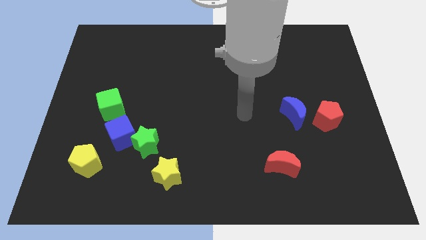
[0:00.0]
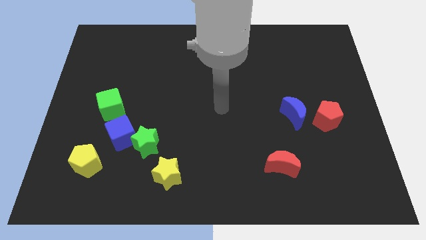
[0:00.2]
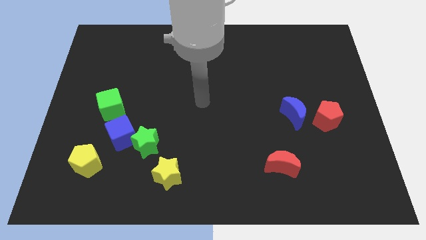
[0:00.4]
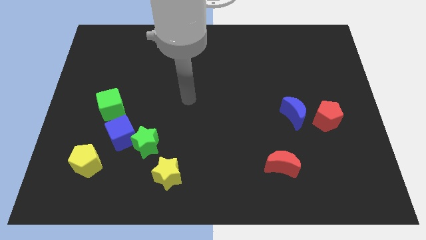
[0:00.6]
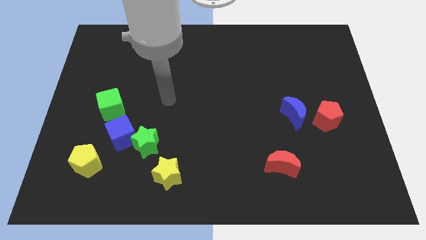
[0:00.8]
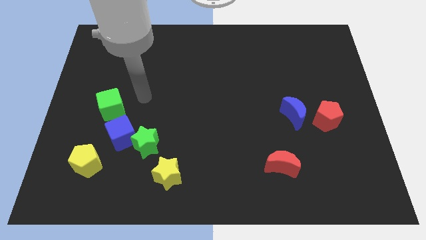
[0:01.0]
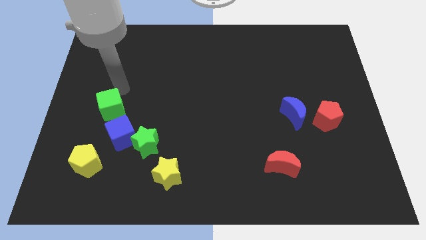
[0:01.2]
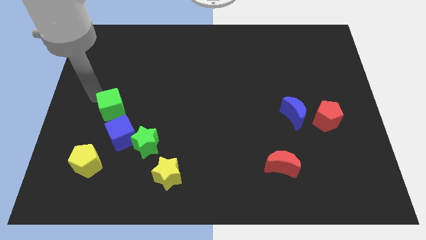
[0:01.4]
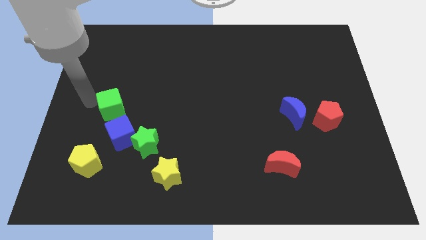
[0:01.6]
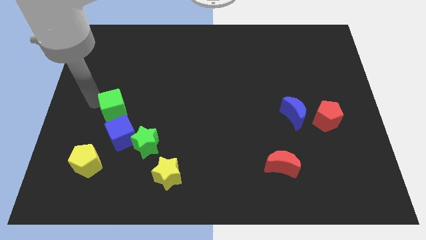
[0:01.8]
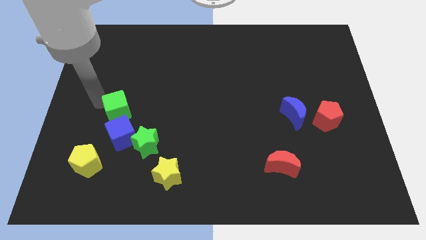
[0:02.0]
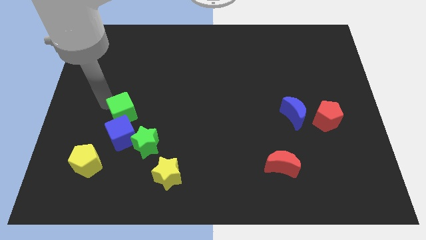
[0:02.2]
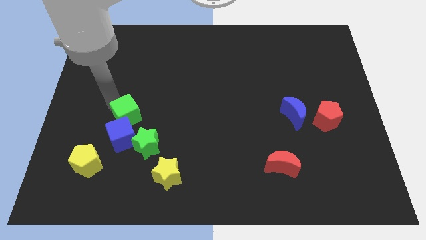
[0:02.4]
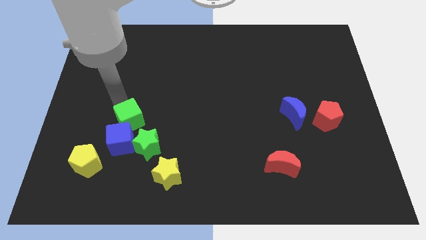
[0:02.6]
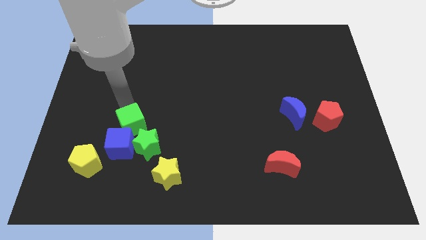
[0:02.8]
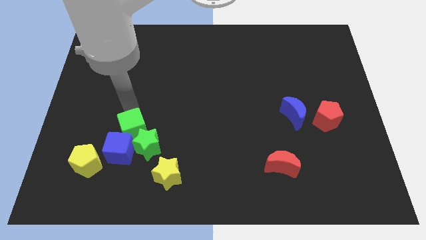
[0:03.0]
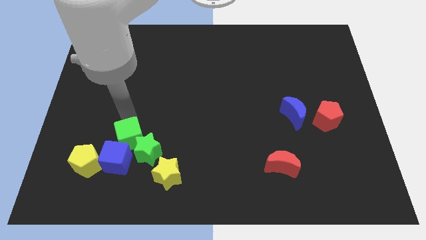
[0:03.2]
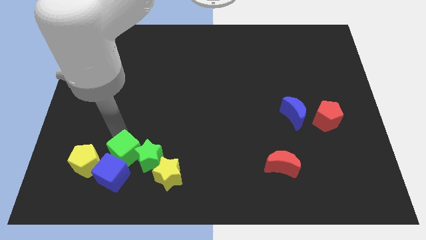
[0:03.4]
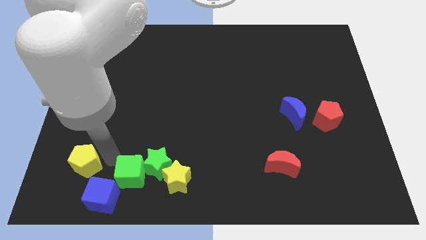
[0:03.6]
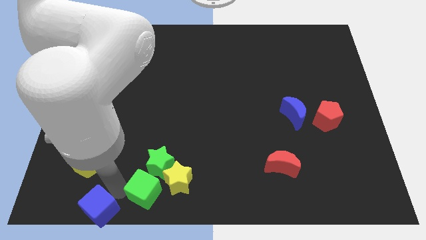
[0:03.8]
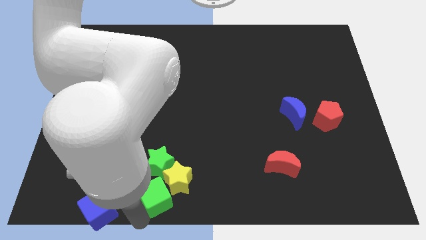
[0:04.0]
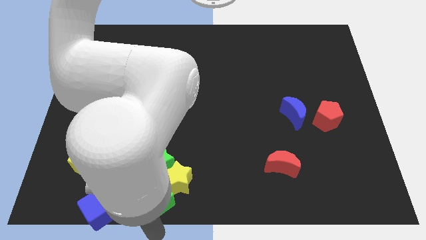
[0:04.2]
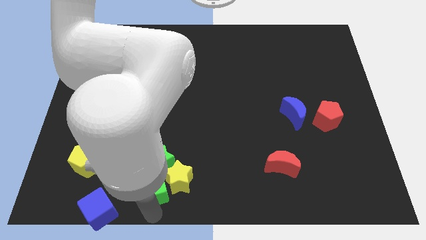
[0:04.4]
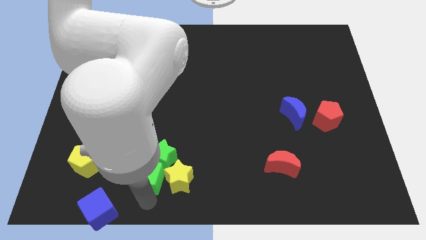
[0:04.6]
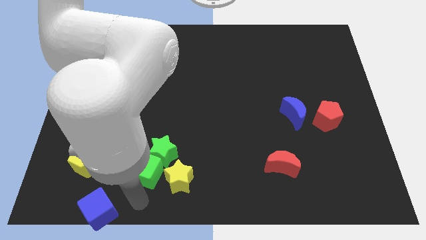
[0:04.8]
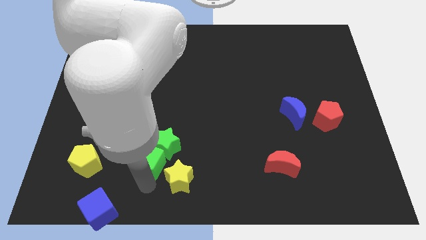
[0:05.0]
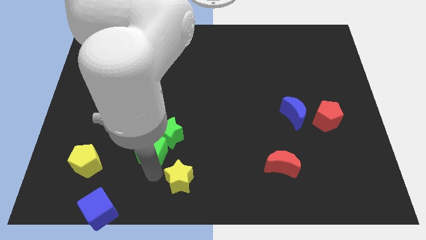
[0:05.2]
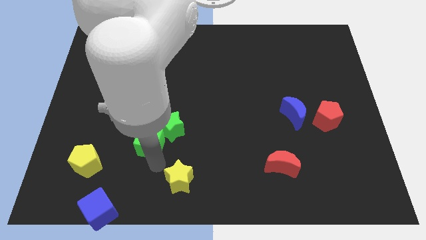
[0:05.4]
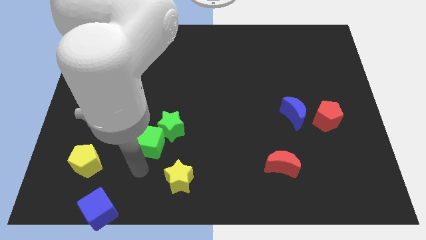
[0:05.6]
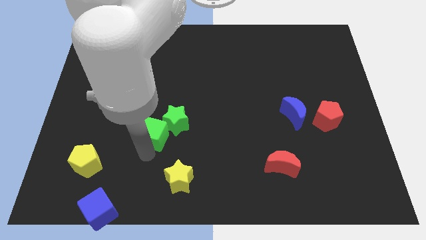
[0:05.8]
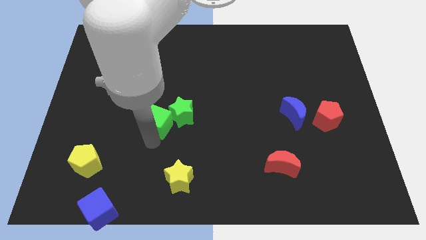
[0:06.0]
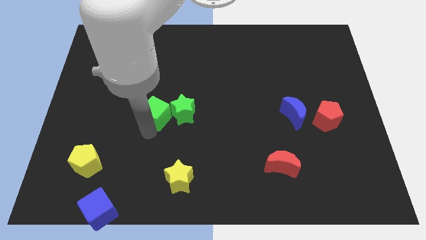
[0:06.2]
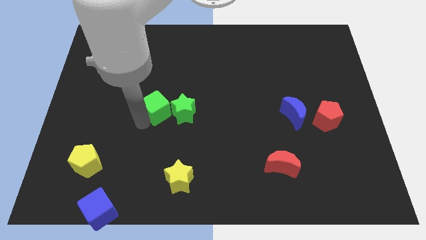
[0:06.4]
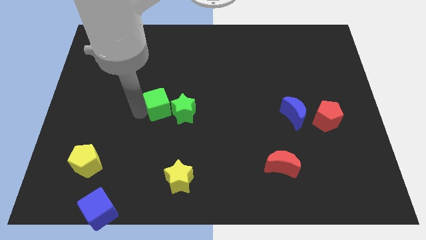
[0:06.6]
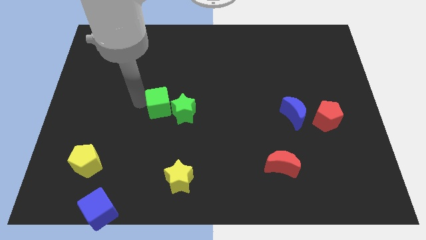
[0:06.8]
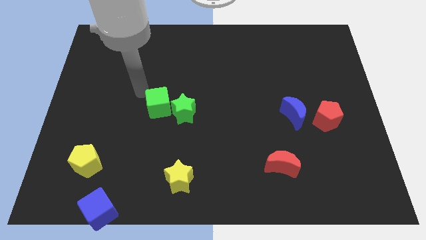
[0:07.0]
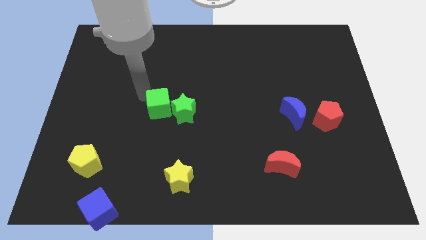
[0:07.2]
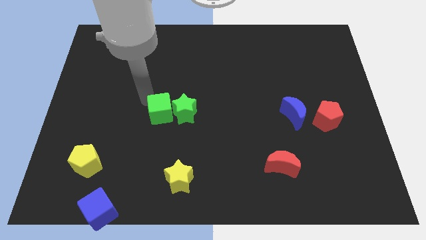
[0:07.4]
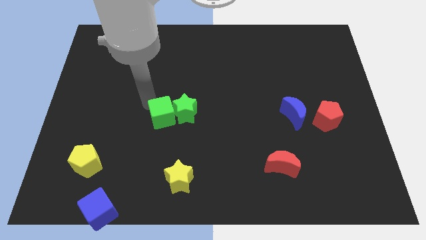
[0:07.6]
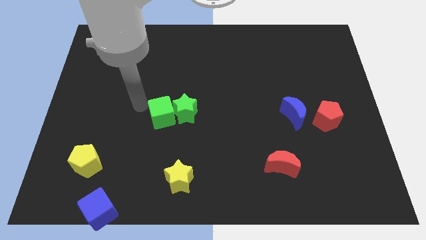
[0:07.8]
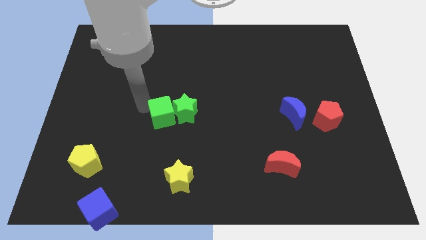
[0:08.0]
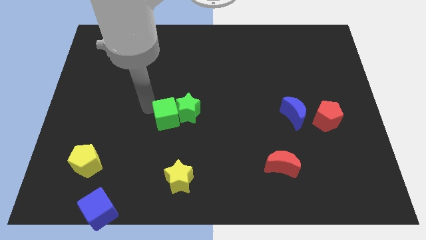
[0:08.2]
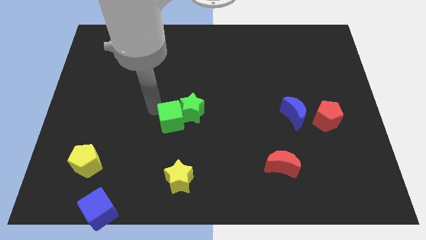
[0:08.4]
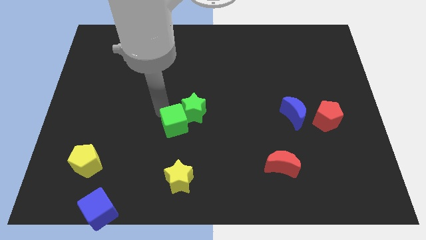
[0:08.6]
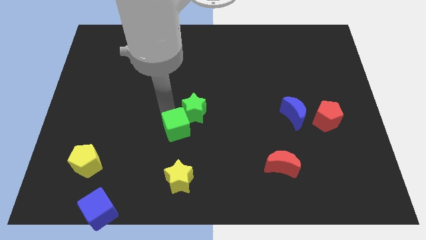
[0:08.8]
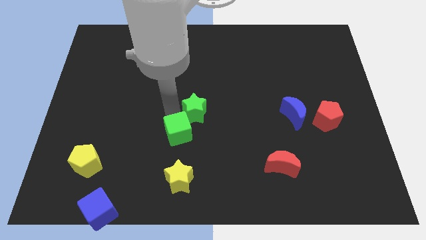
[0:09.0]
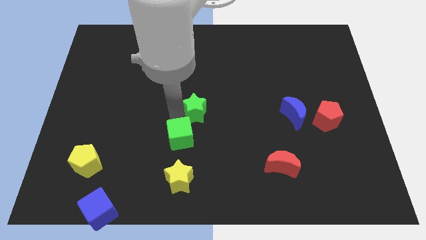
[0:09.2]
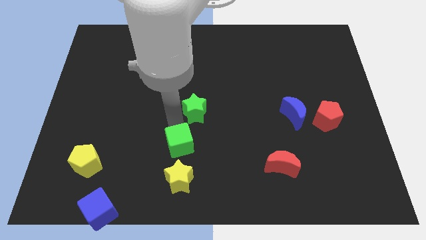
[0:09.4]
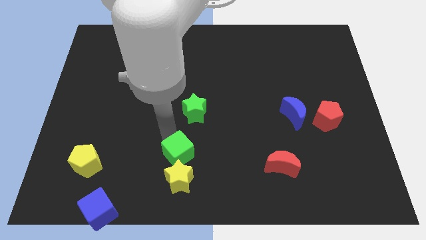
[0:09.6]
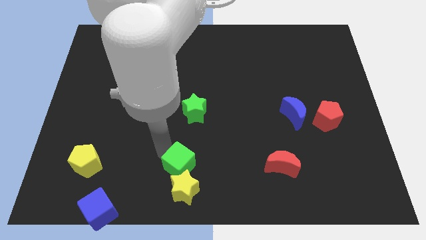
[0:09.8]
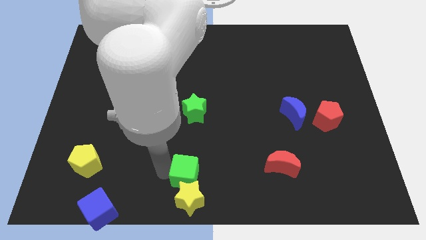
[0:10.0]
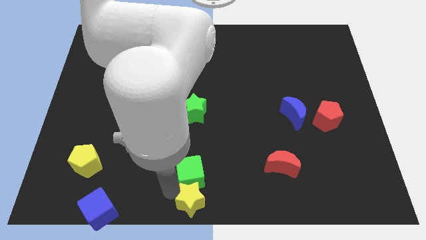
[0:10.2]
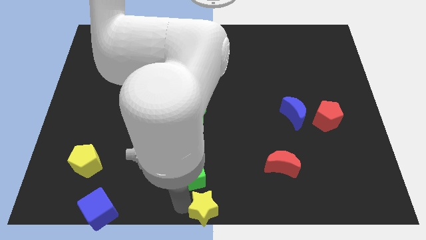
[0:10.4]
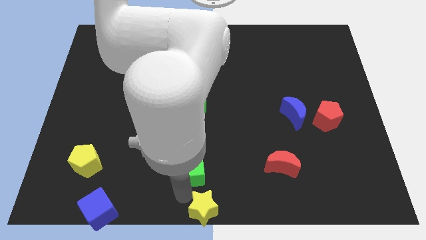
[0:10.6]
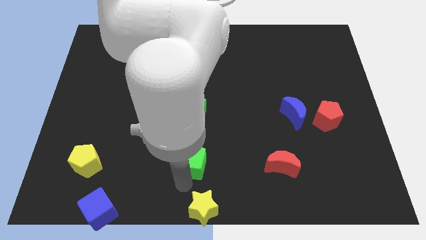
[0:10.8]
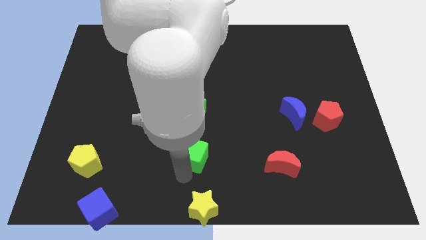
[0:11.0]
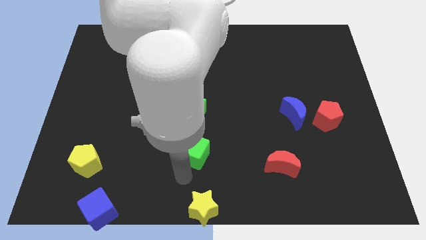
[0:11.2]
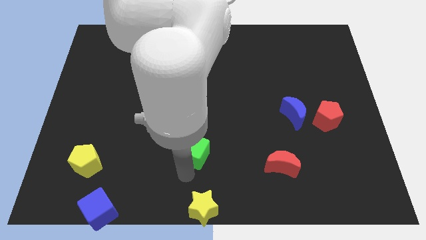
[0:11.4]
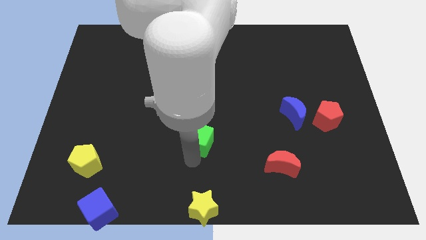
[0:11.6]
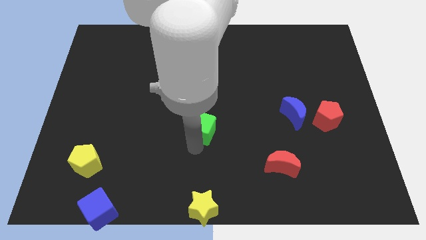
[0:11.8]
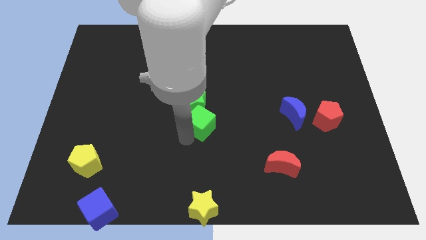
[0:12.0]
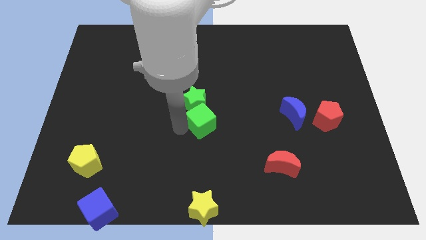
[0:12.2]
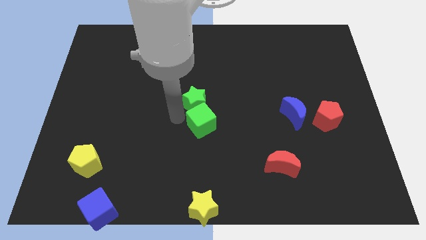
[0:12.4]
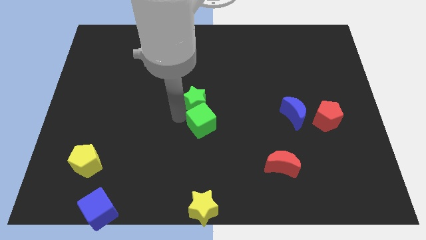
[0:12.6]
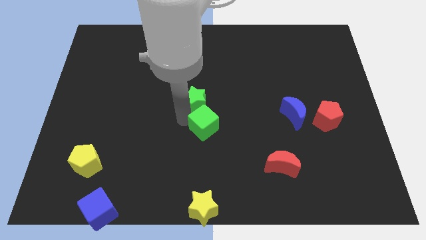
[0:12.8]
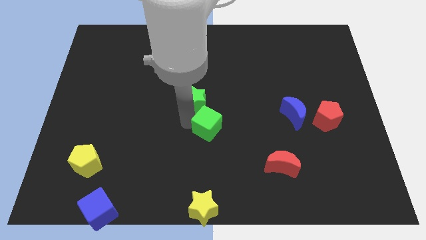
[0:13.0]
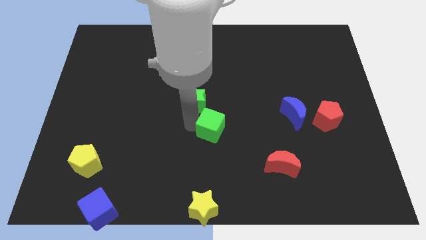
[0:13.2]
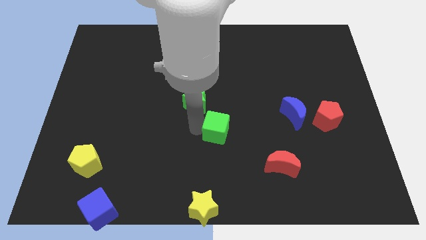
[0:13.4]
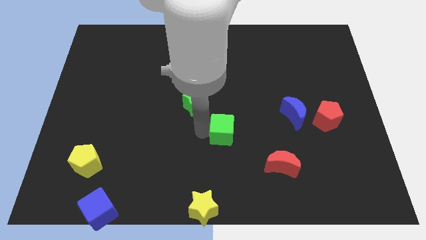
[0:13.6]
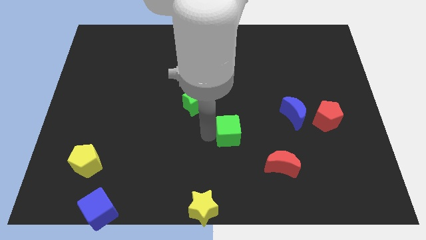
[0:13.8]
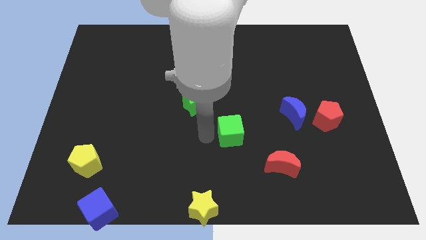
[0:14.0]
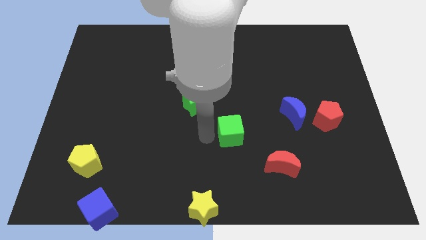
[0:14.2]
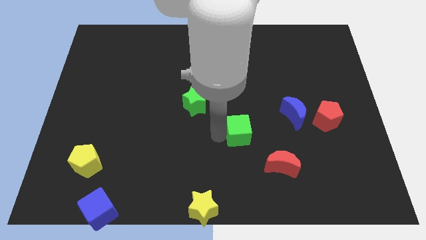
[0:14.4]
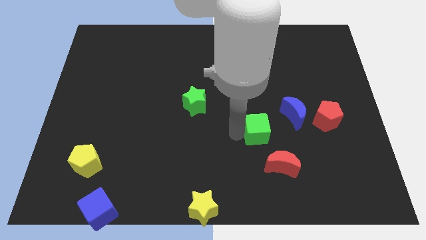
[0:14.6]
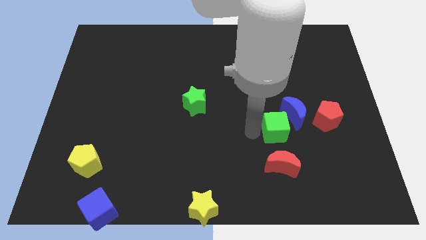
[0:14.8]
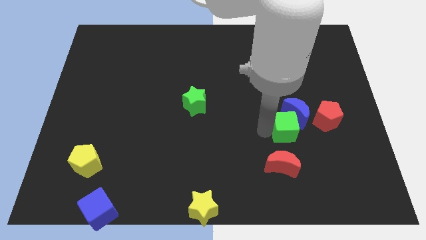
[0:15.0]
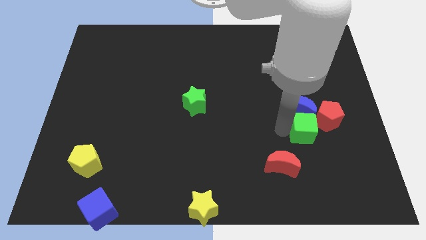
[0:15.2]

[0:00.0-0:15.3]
move the green cube to the bottom right side of the blue moon
